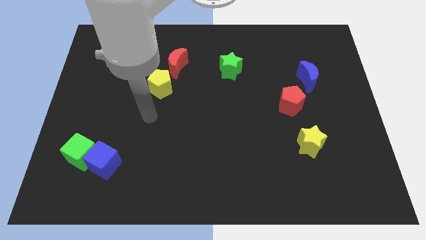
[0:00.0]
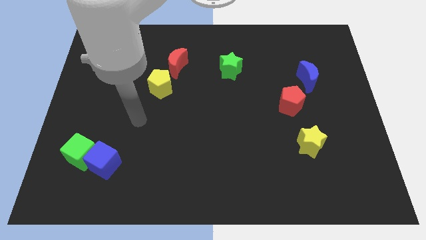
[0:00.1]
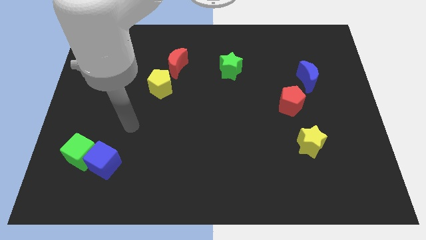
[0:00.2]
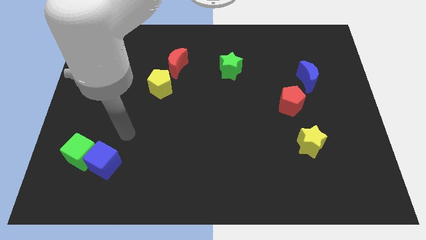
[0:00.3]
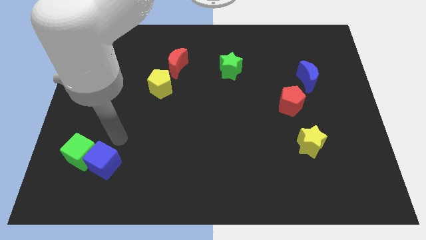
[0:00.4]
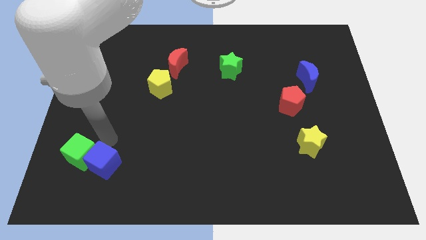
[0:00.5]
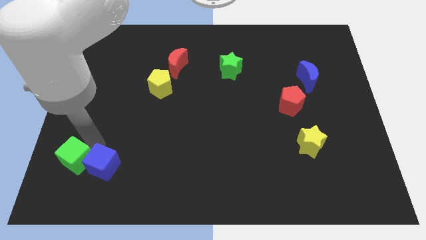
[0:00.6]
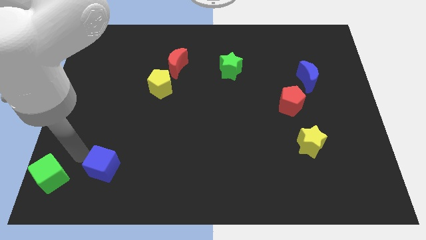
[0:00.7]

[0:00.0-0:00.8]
move the blue cube away from the green cube

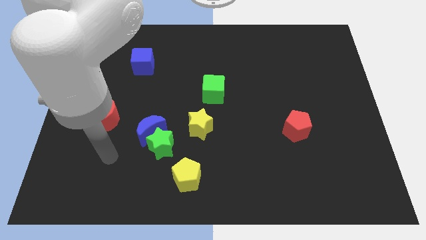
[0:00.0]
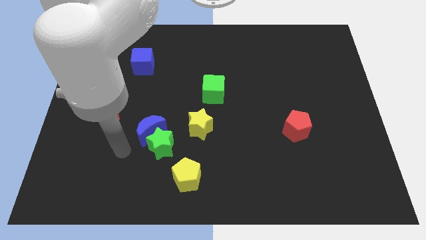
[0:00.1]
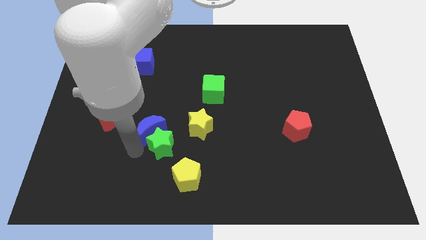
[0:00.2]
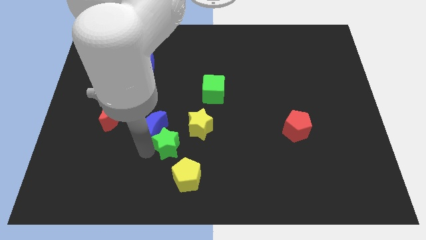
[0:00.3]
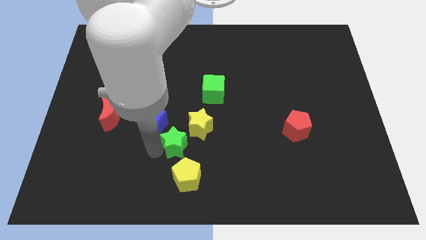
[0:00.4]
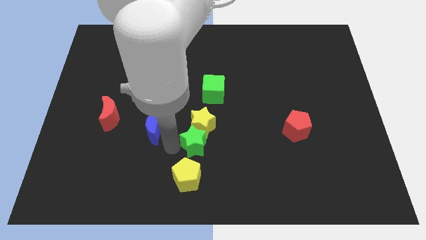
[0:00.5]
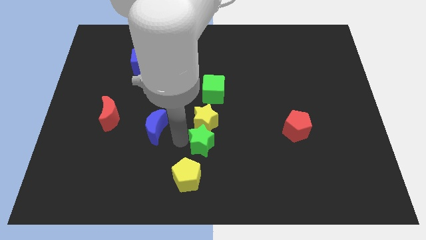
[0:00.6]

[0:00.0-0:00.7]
move the blue moon away from the green star

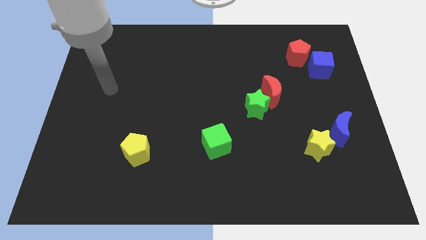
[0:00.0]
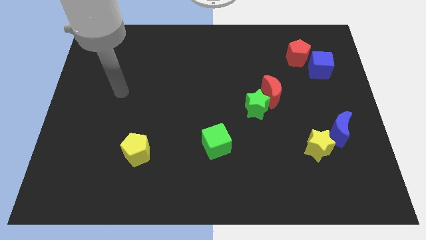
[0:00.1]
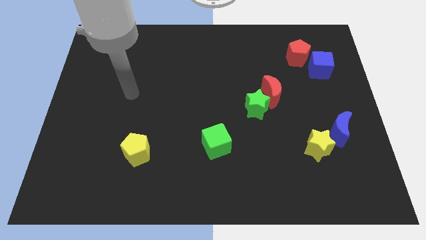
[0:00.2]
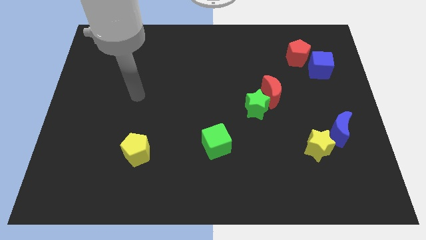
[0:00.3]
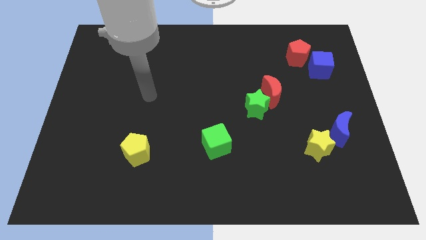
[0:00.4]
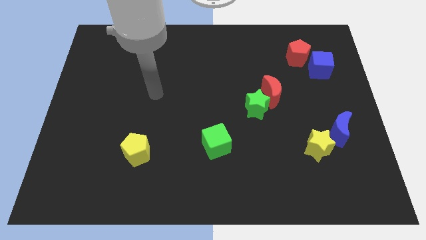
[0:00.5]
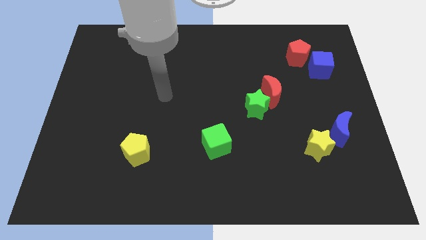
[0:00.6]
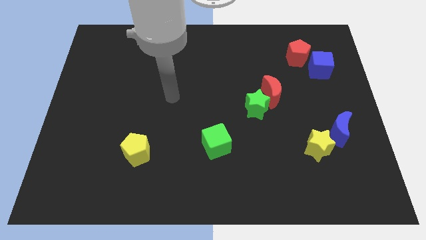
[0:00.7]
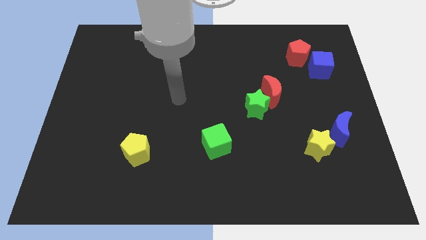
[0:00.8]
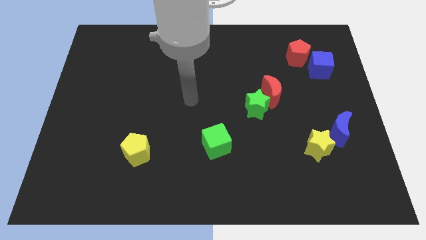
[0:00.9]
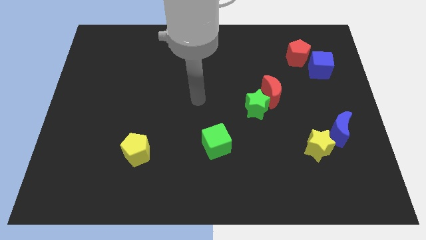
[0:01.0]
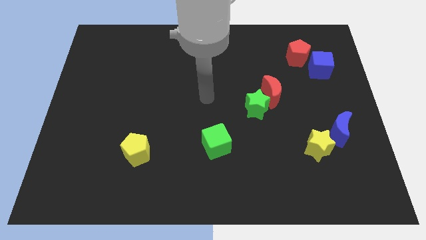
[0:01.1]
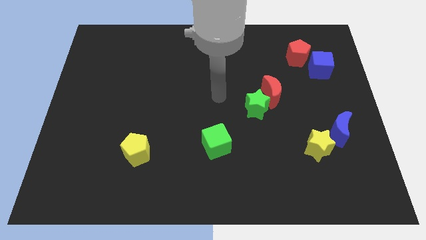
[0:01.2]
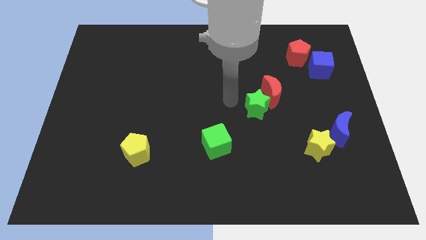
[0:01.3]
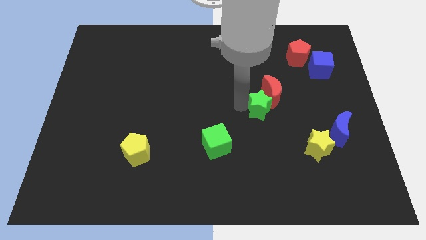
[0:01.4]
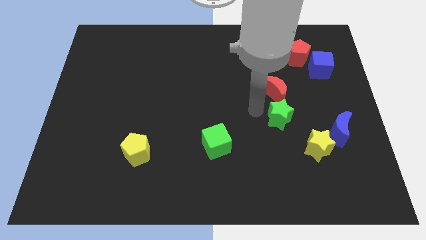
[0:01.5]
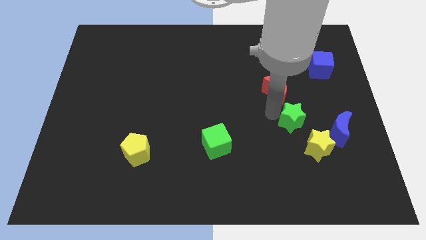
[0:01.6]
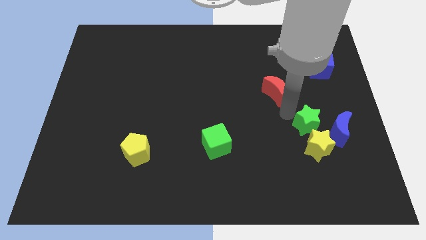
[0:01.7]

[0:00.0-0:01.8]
separate the red moon from the green star

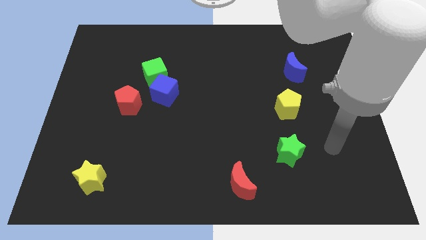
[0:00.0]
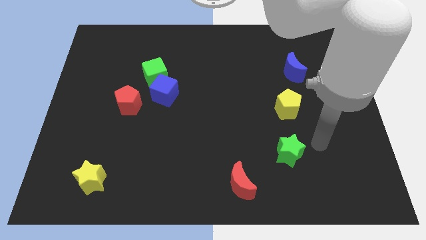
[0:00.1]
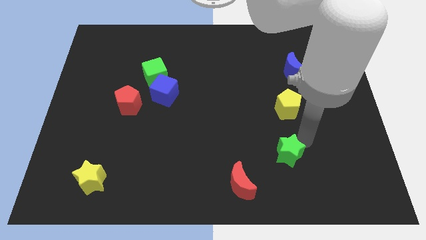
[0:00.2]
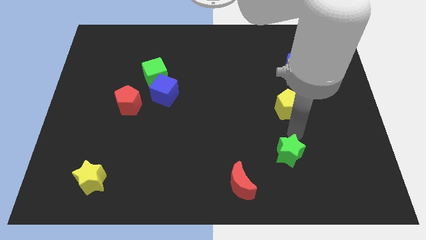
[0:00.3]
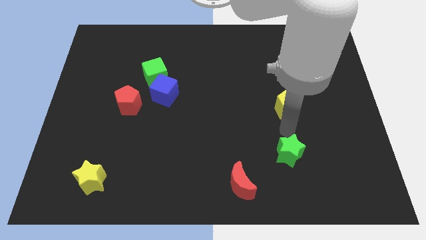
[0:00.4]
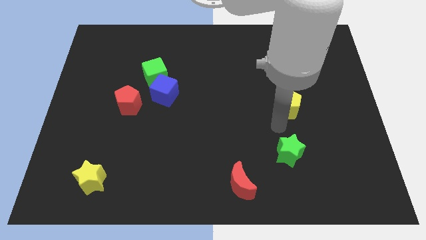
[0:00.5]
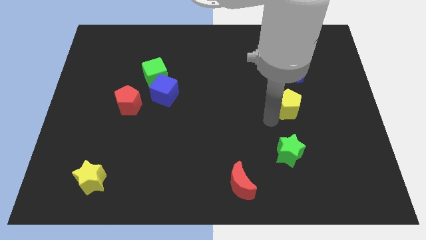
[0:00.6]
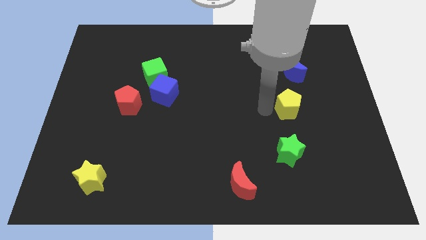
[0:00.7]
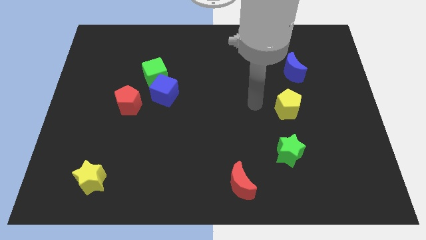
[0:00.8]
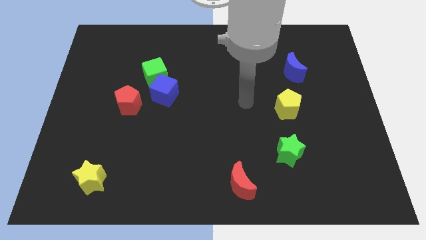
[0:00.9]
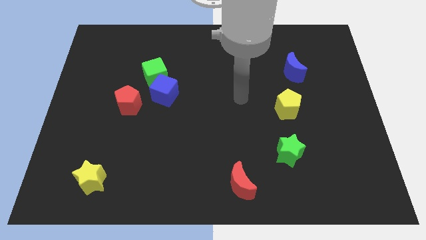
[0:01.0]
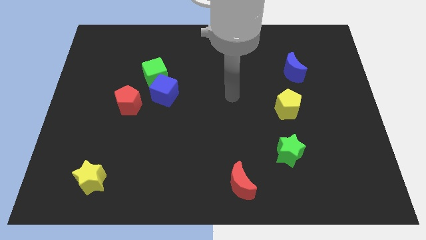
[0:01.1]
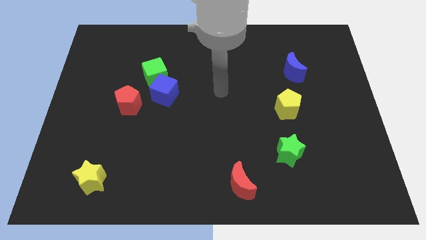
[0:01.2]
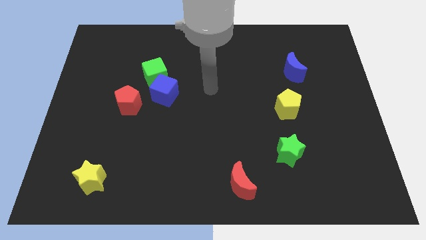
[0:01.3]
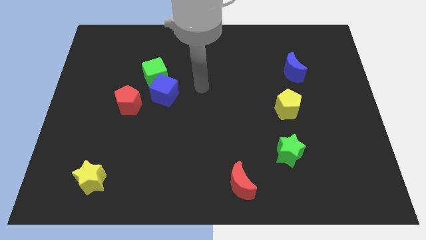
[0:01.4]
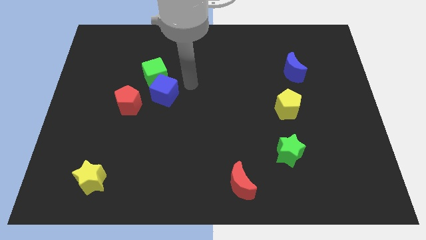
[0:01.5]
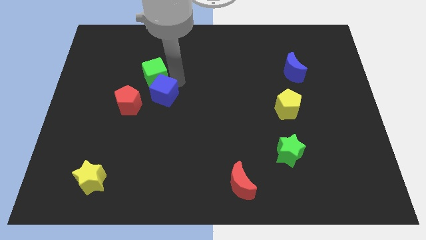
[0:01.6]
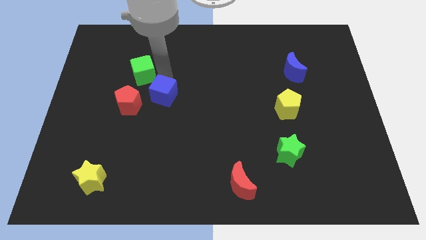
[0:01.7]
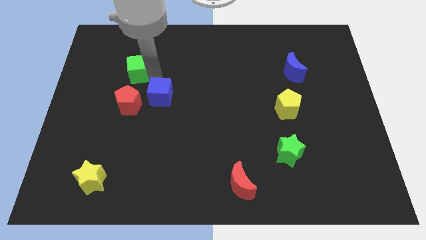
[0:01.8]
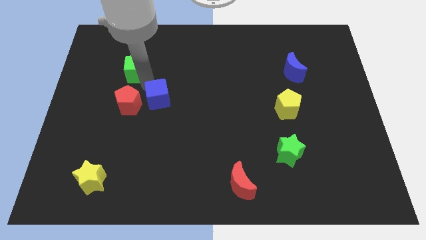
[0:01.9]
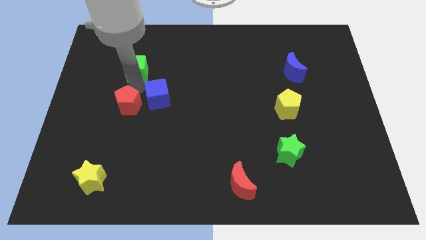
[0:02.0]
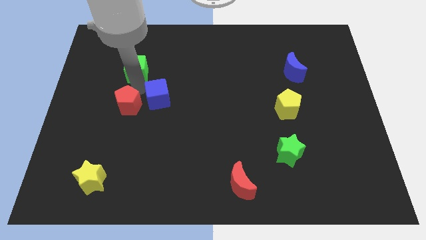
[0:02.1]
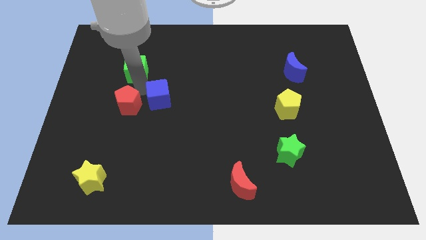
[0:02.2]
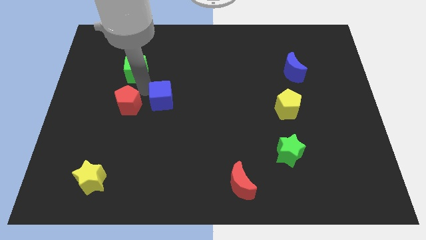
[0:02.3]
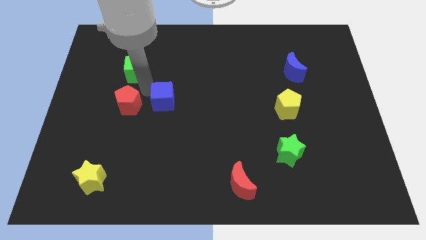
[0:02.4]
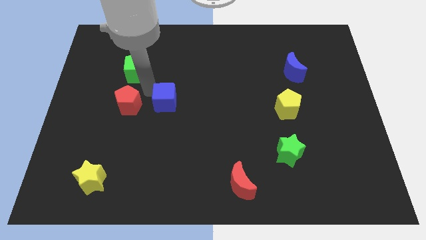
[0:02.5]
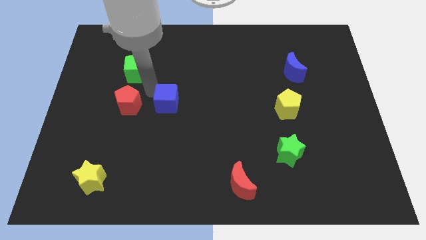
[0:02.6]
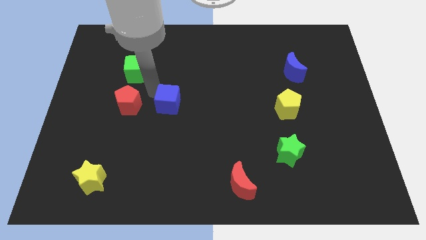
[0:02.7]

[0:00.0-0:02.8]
pull the blue cube apart from the green cube and red pentagon

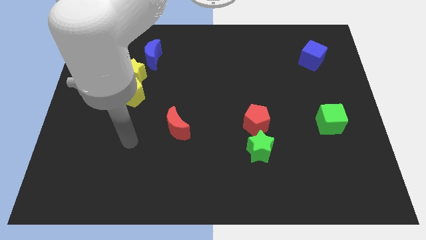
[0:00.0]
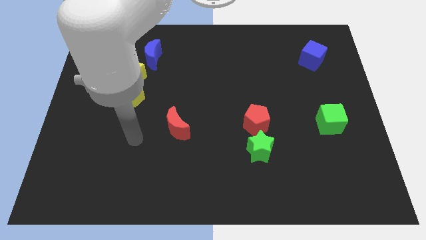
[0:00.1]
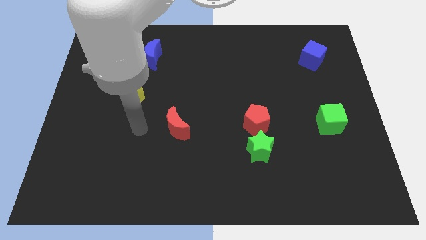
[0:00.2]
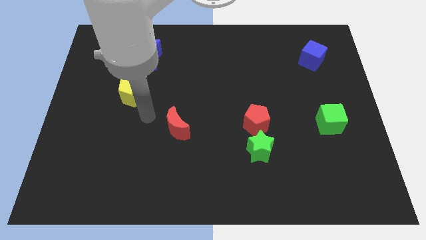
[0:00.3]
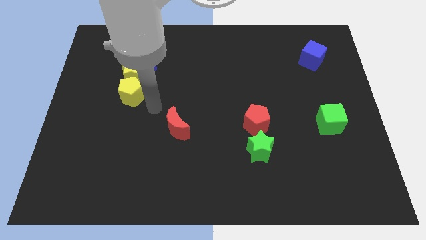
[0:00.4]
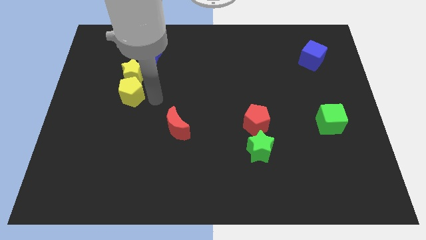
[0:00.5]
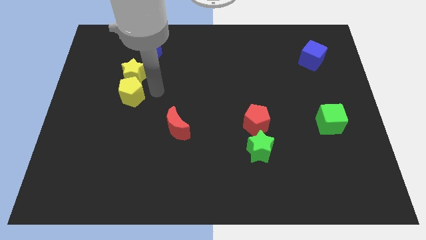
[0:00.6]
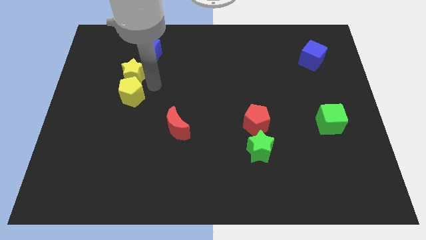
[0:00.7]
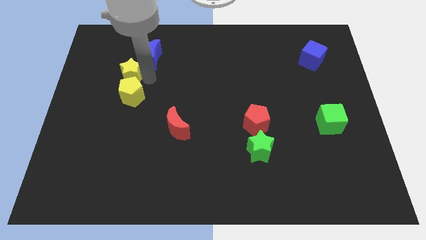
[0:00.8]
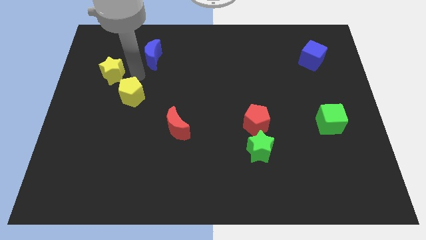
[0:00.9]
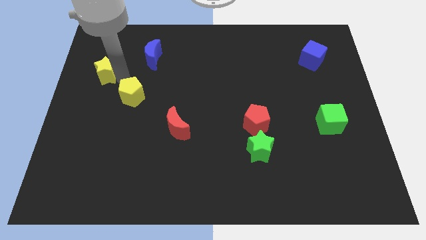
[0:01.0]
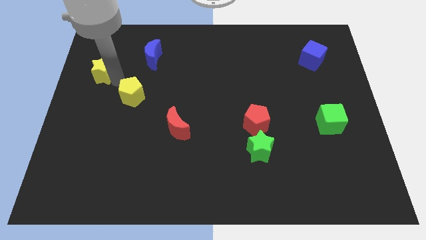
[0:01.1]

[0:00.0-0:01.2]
separate the yellow pentagon from the yellow star

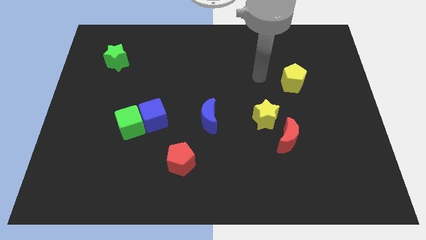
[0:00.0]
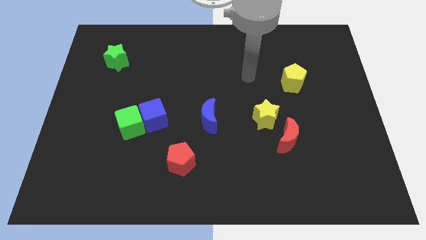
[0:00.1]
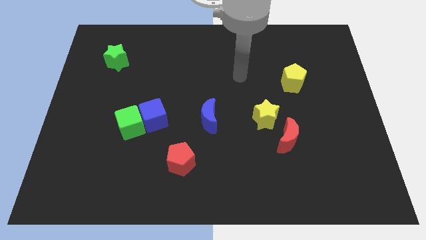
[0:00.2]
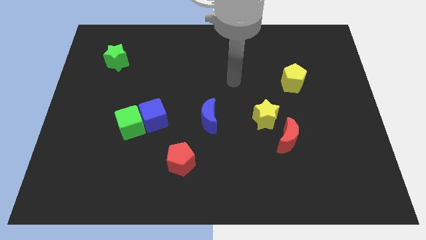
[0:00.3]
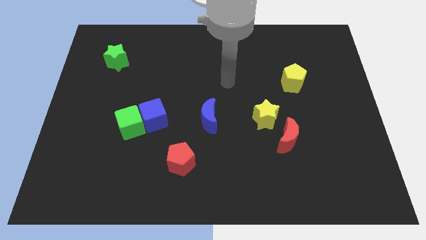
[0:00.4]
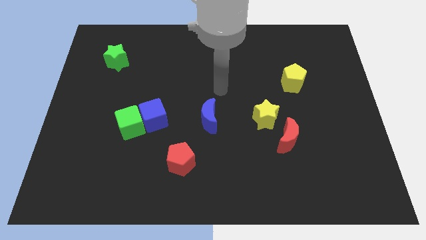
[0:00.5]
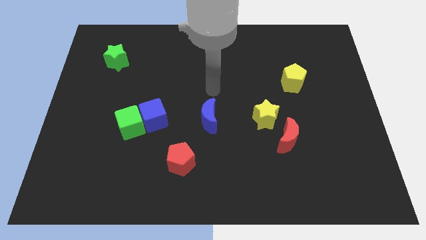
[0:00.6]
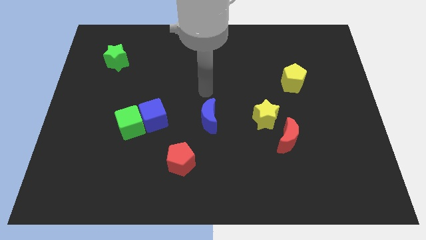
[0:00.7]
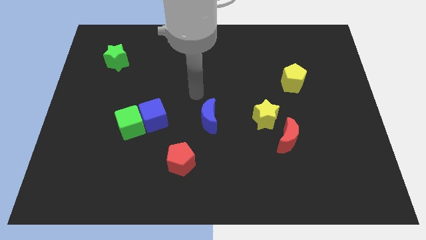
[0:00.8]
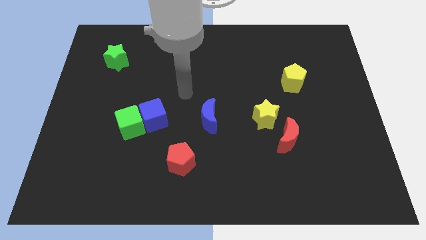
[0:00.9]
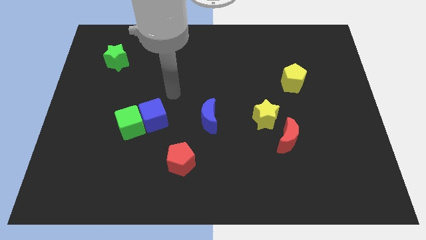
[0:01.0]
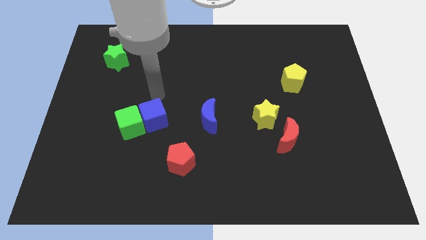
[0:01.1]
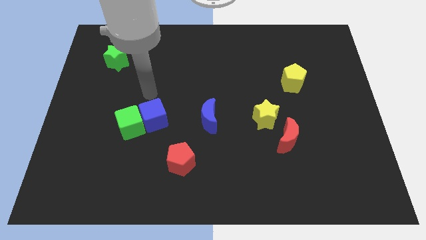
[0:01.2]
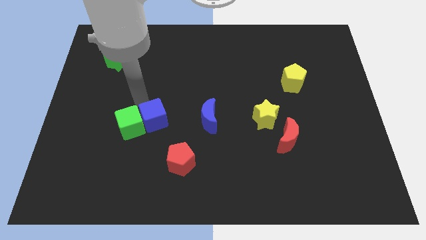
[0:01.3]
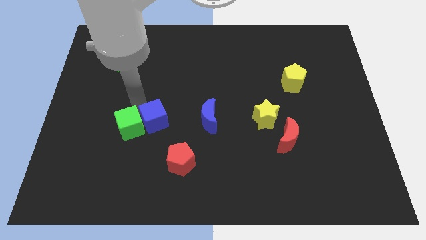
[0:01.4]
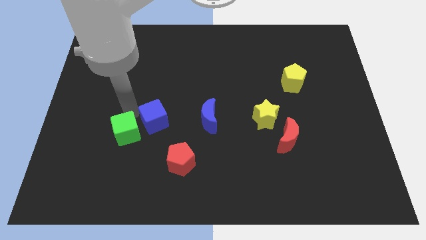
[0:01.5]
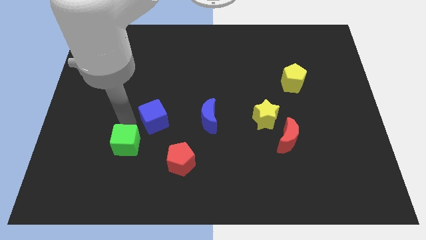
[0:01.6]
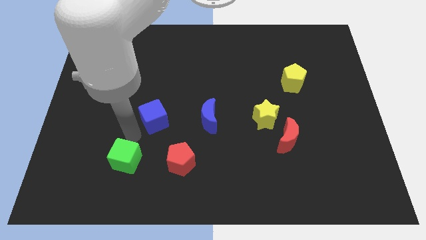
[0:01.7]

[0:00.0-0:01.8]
separate the blue cube from the green cube

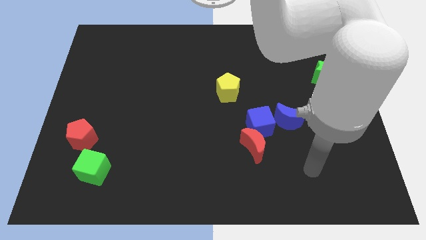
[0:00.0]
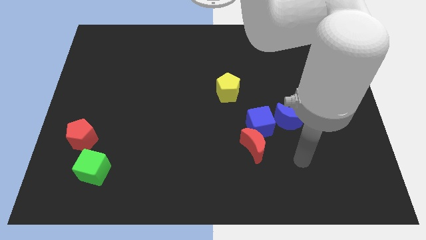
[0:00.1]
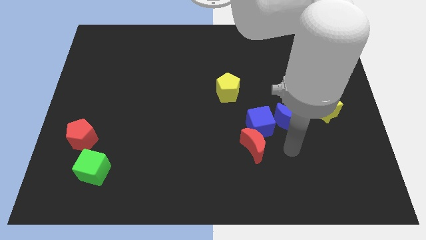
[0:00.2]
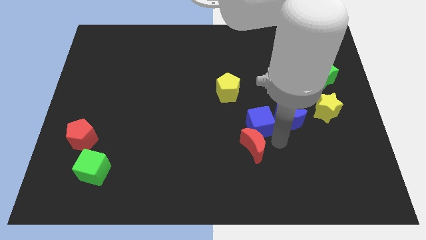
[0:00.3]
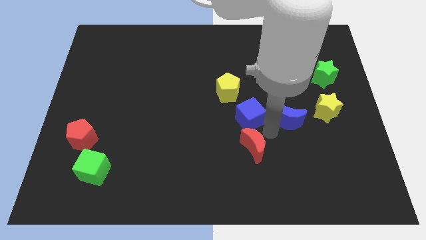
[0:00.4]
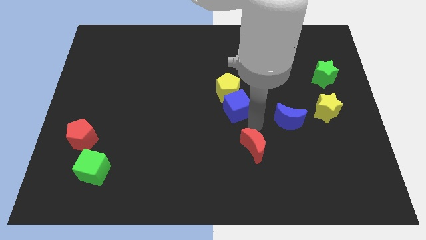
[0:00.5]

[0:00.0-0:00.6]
move the red moon away from the blue cube
